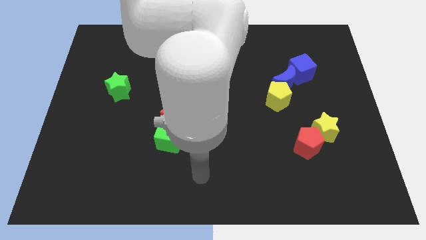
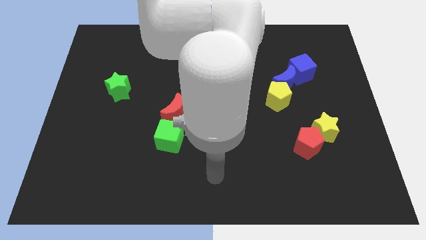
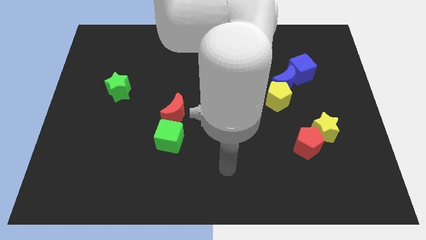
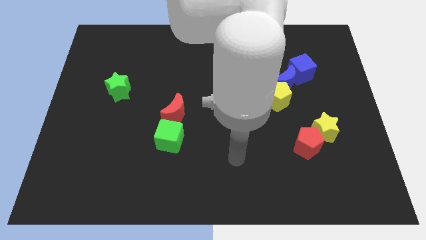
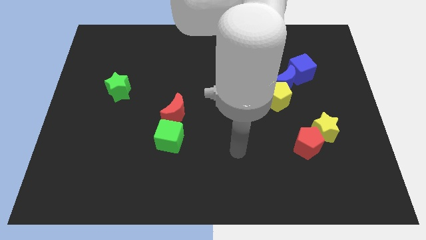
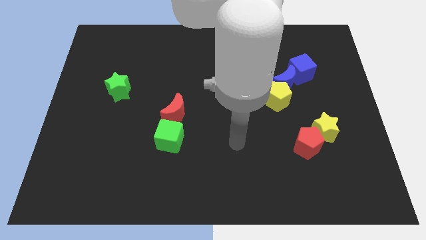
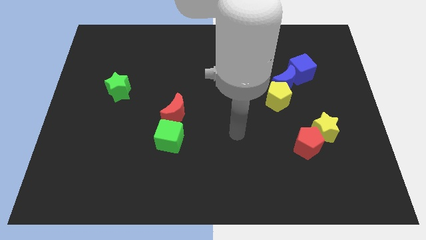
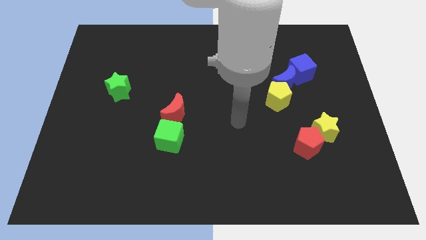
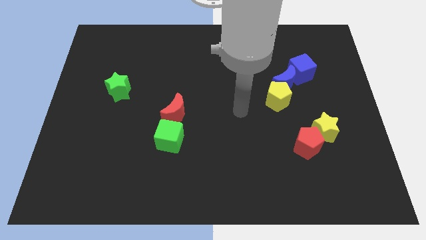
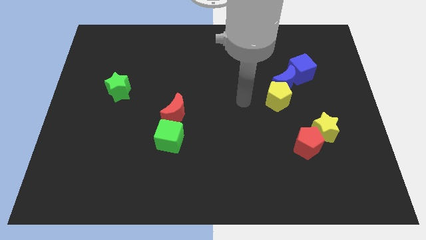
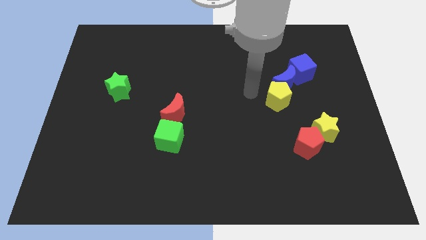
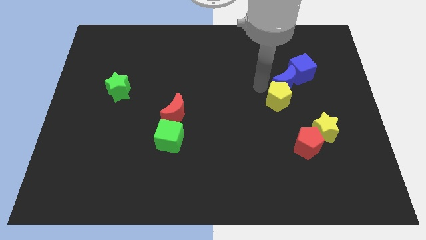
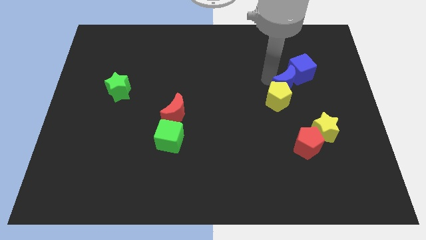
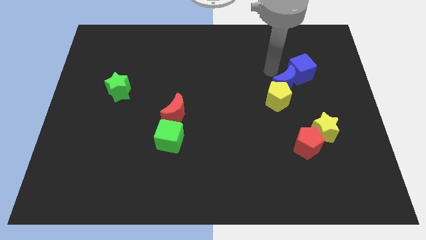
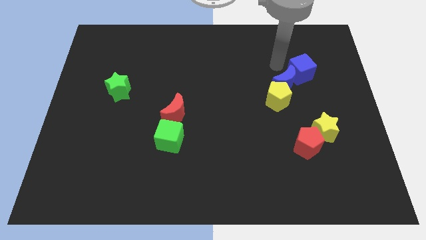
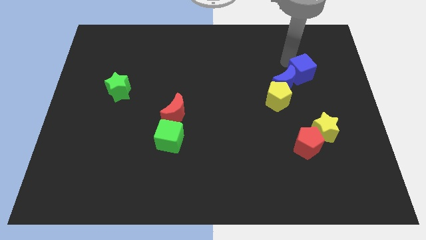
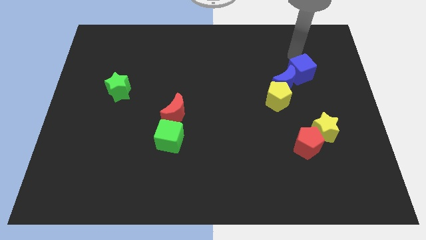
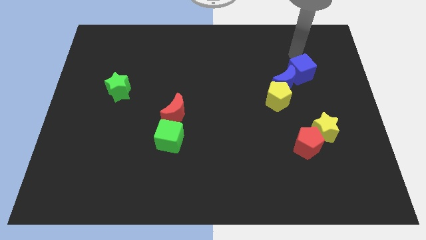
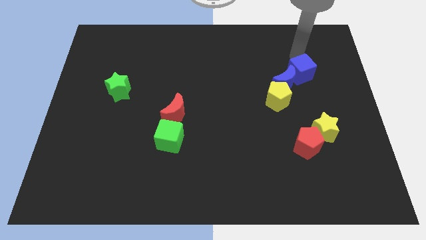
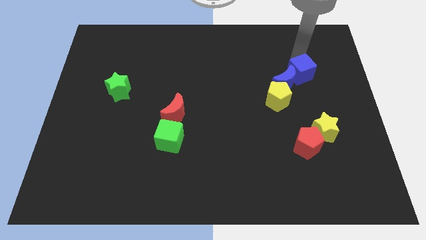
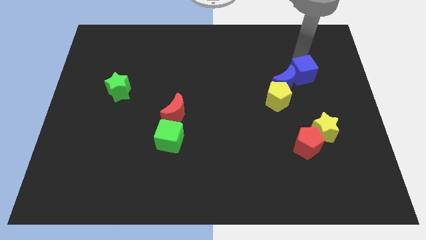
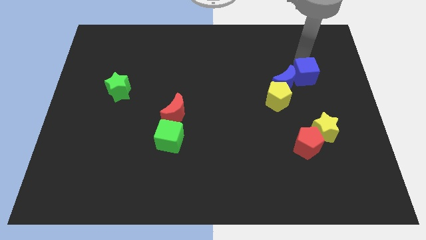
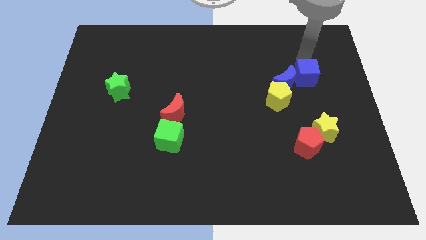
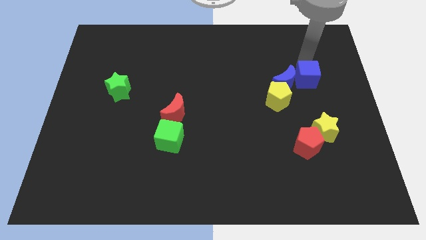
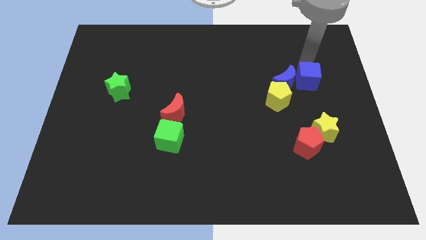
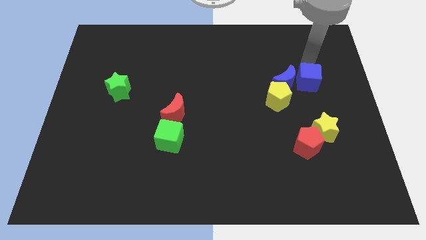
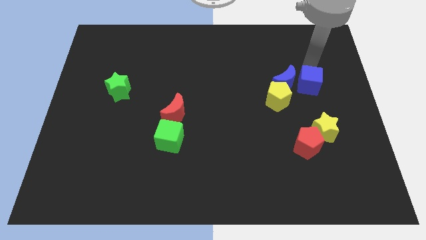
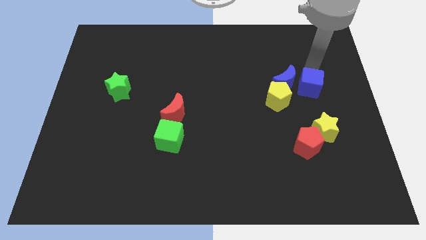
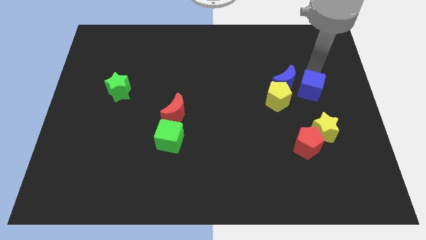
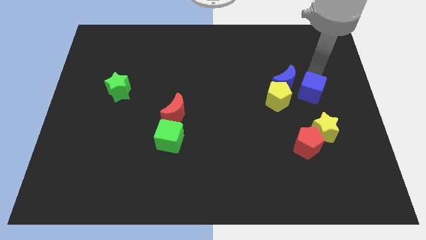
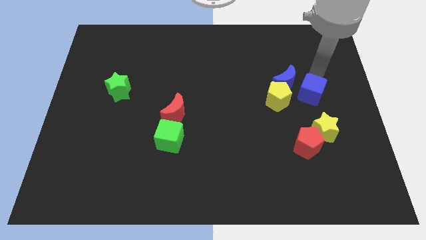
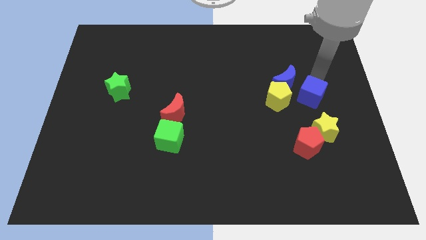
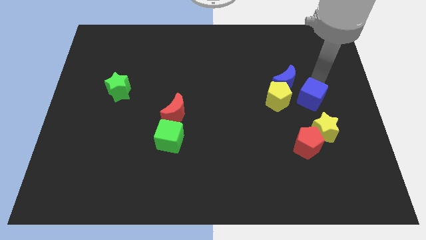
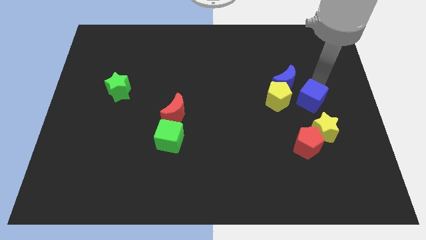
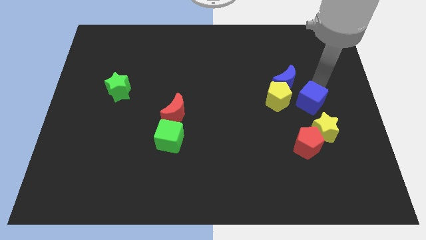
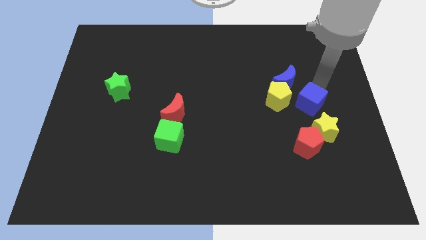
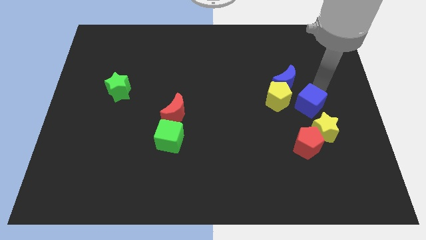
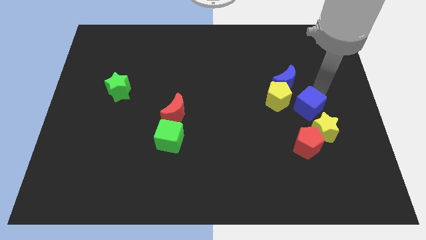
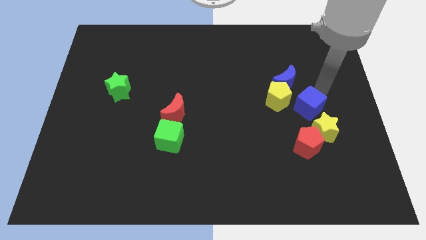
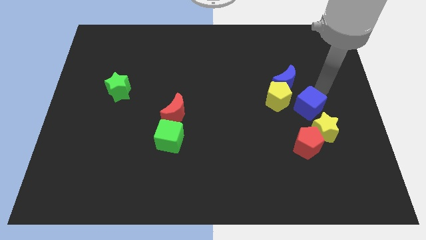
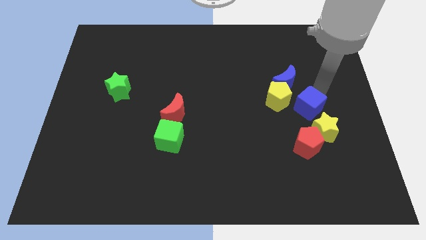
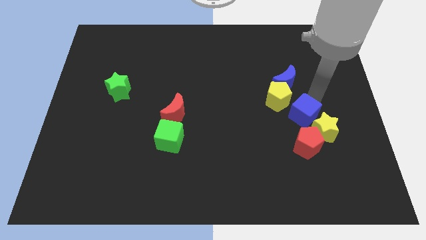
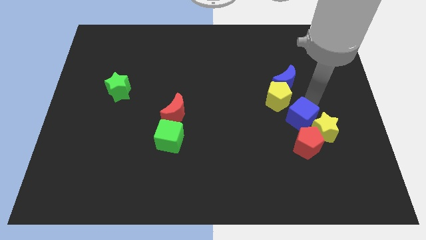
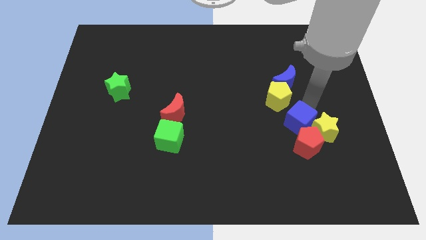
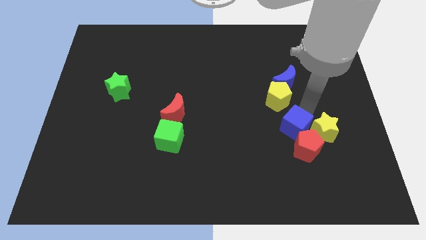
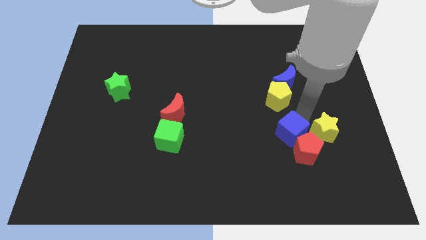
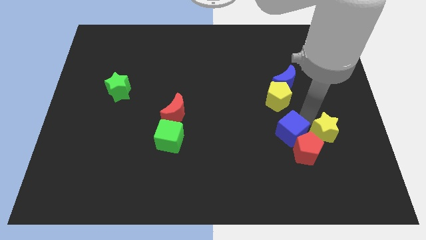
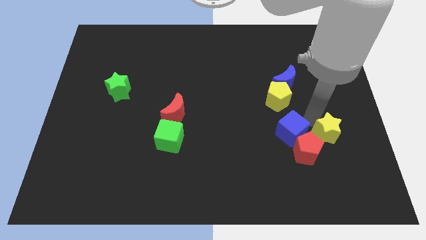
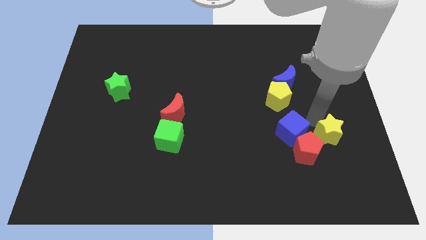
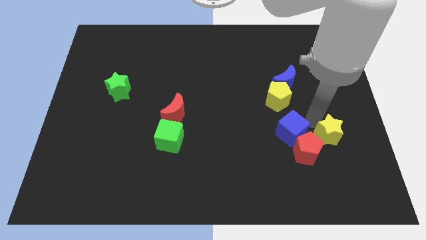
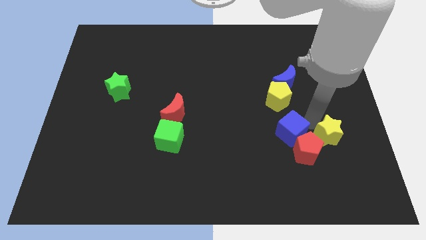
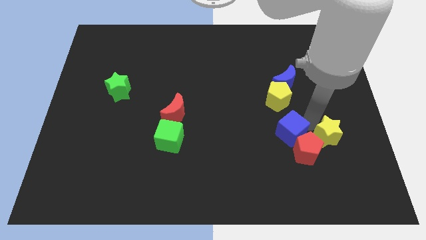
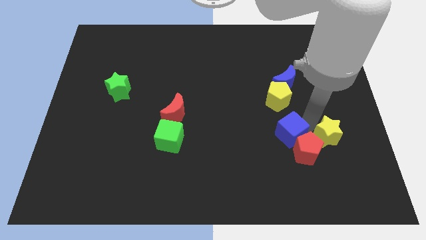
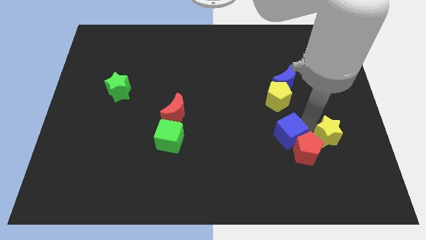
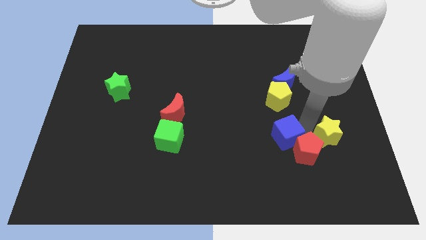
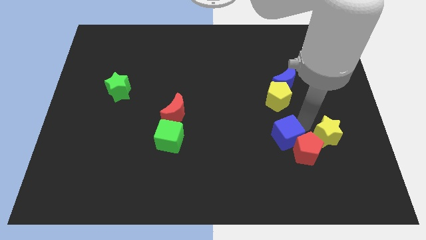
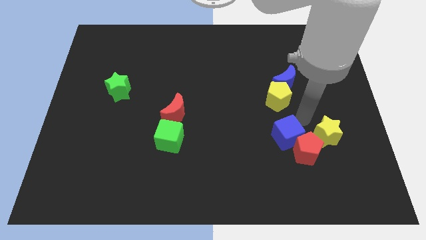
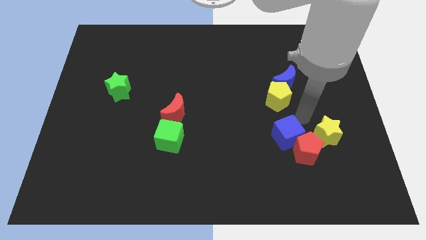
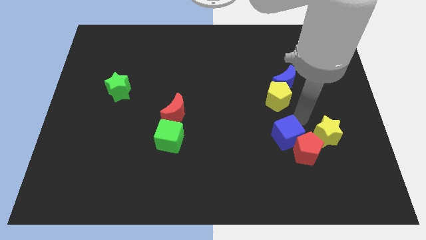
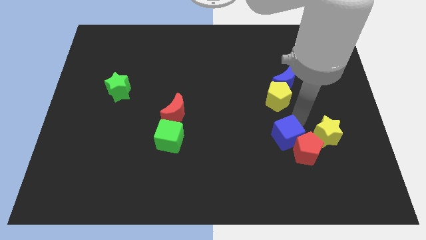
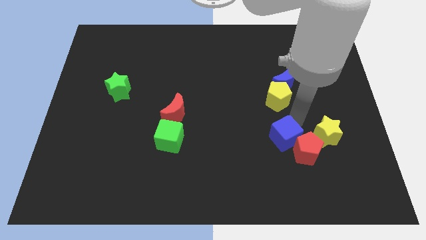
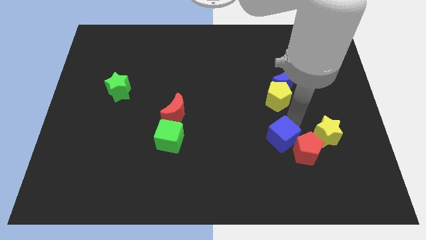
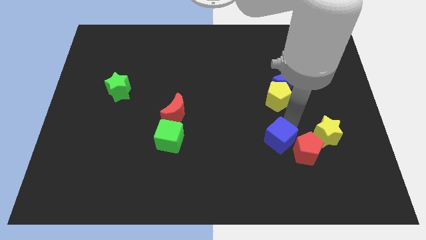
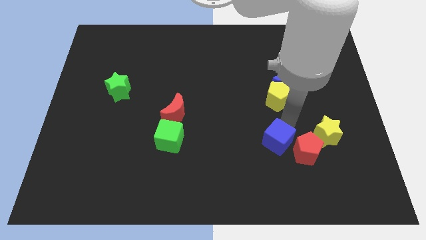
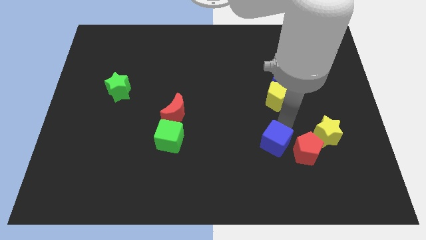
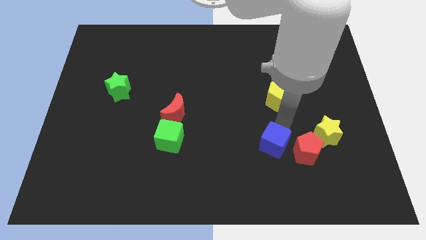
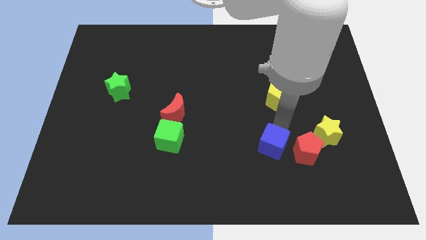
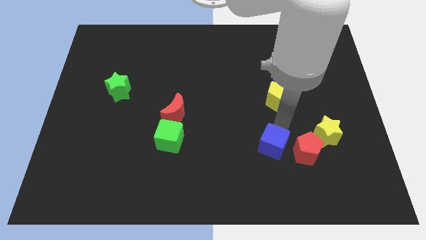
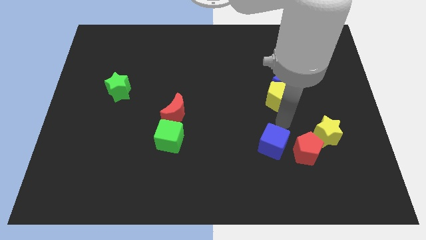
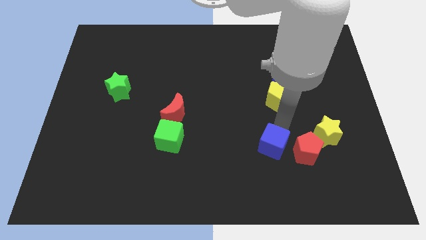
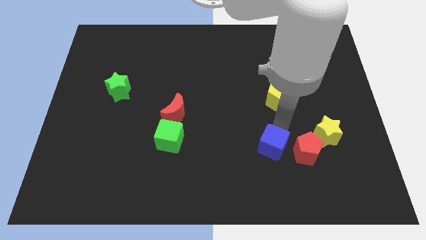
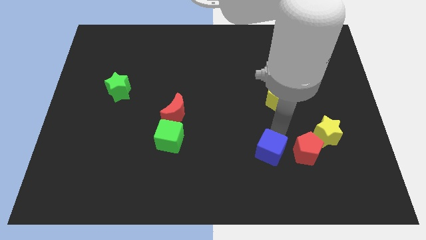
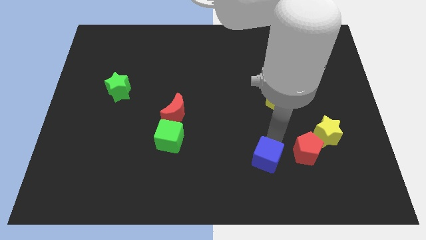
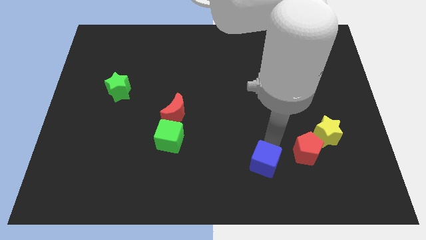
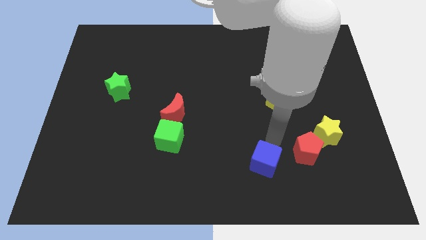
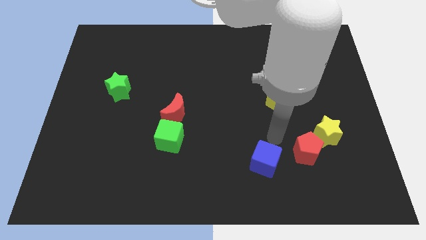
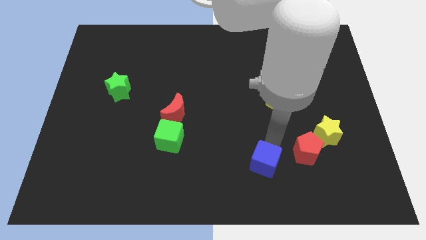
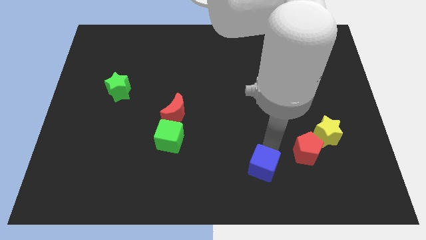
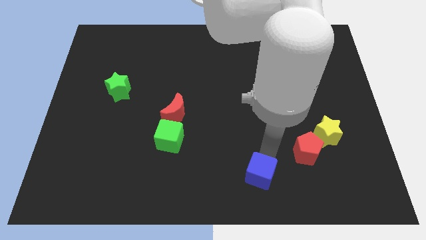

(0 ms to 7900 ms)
put the blue cube to the bottom
